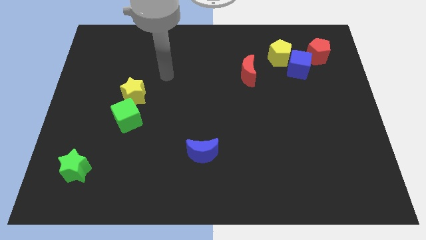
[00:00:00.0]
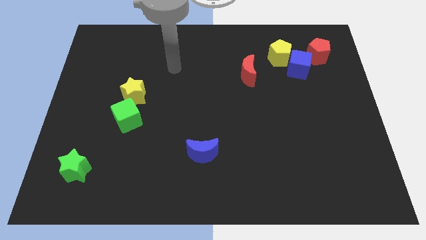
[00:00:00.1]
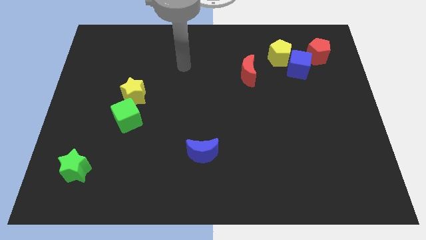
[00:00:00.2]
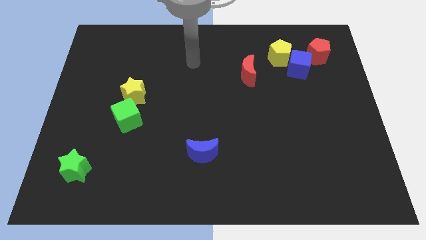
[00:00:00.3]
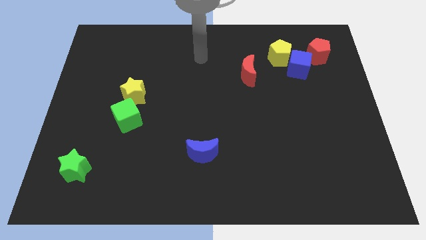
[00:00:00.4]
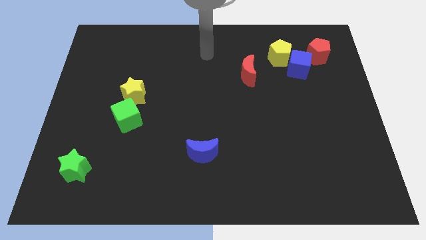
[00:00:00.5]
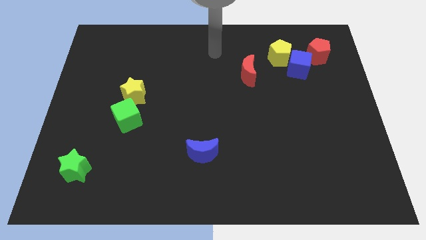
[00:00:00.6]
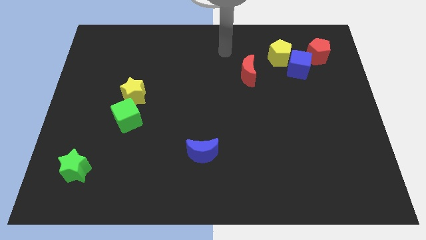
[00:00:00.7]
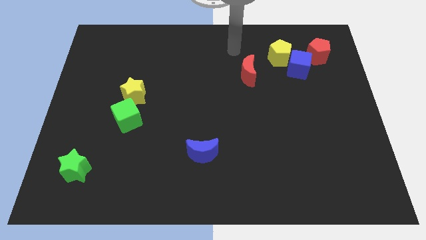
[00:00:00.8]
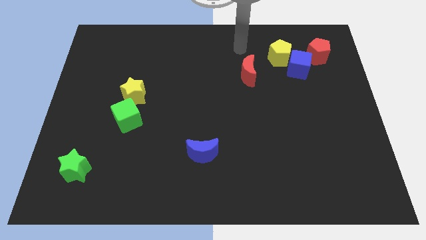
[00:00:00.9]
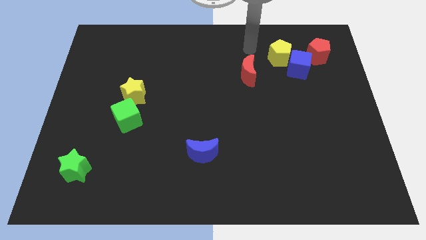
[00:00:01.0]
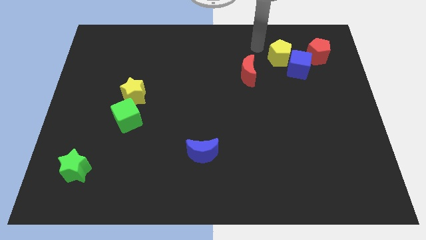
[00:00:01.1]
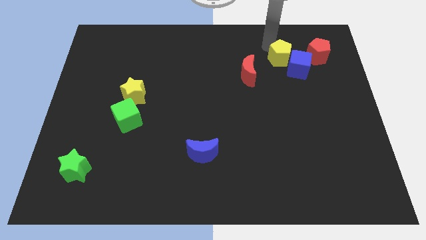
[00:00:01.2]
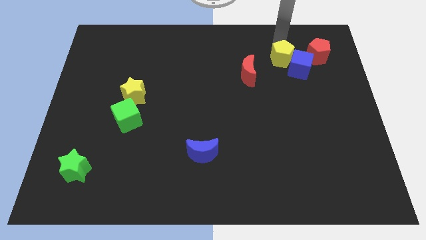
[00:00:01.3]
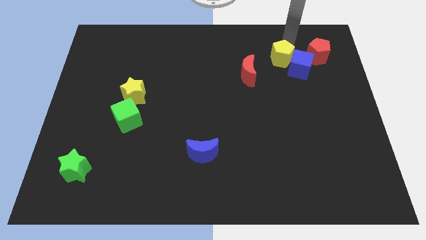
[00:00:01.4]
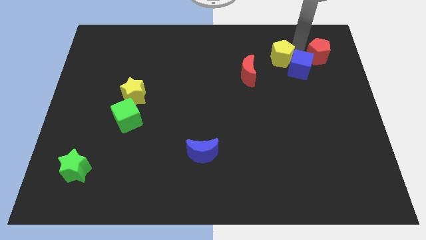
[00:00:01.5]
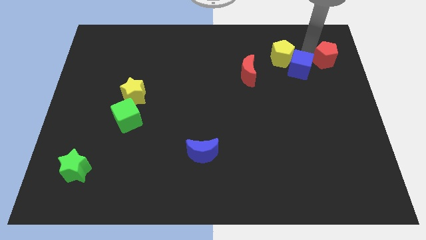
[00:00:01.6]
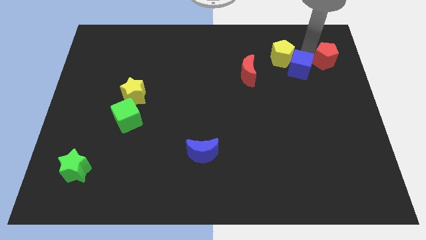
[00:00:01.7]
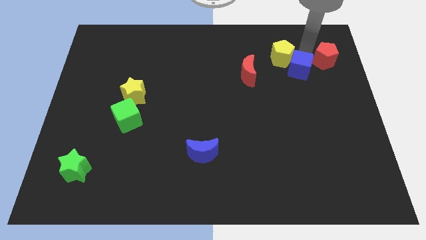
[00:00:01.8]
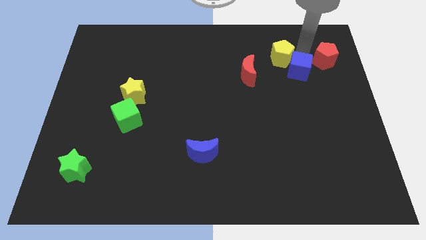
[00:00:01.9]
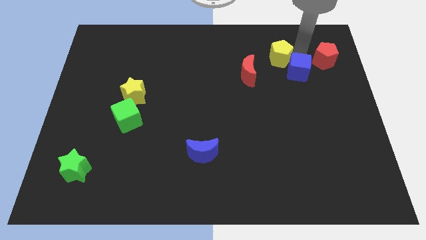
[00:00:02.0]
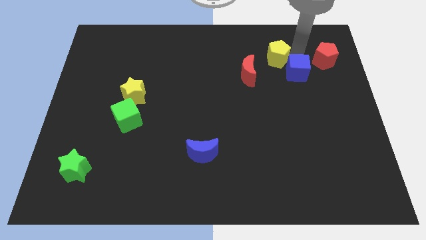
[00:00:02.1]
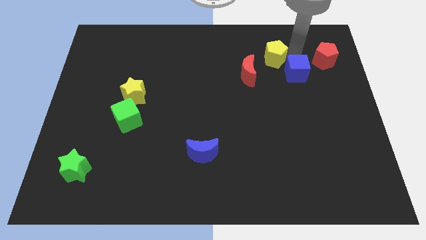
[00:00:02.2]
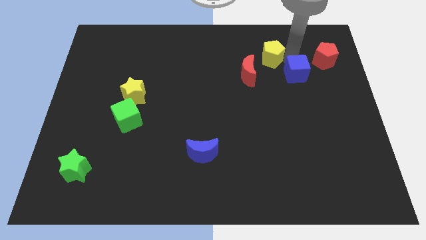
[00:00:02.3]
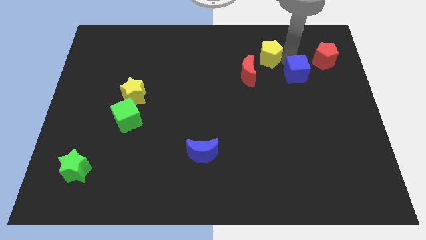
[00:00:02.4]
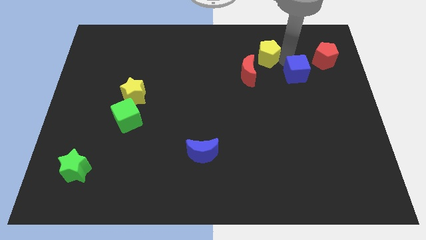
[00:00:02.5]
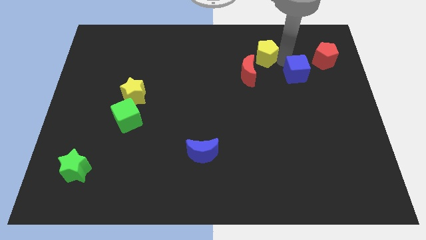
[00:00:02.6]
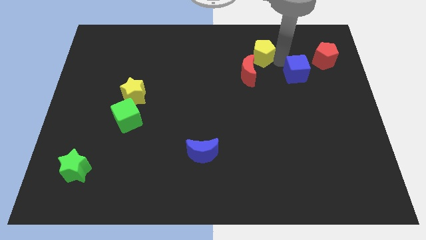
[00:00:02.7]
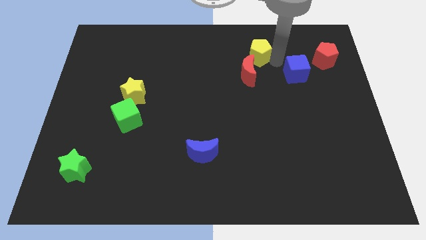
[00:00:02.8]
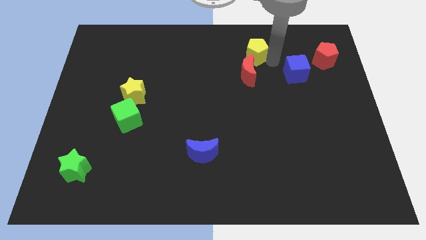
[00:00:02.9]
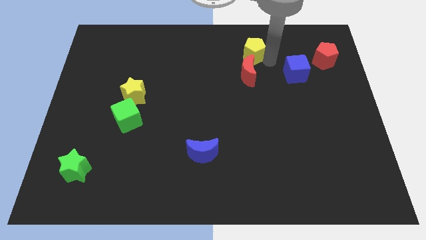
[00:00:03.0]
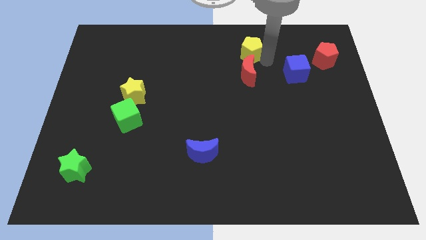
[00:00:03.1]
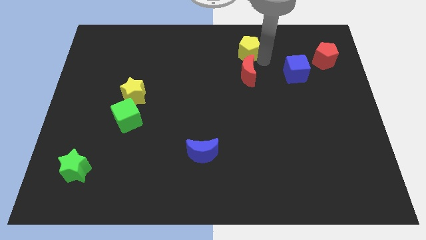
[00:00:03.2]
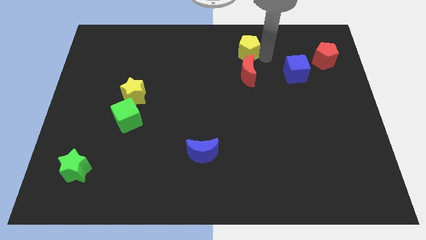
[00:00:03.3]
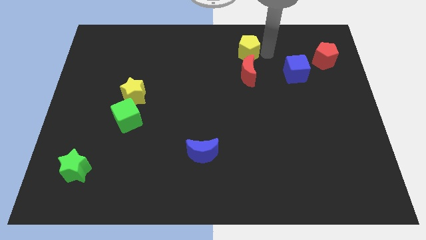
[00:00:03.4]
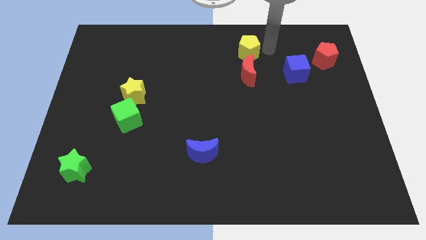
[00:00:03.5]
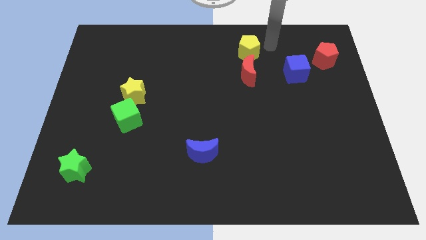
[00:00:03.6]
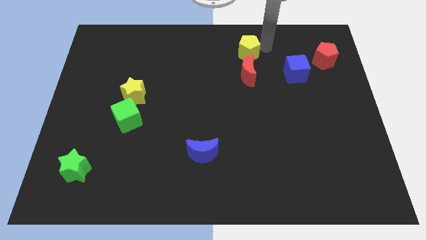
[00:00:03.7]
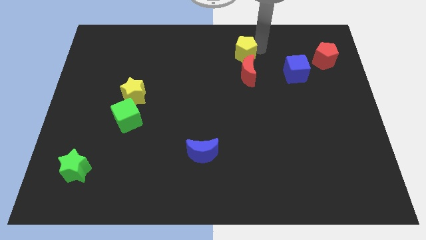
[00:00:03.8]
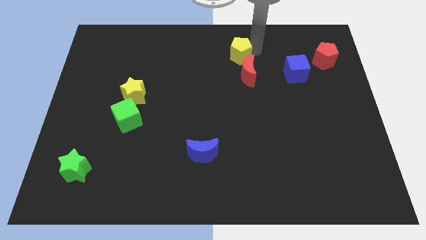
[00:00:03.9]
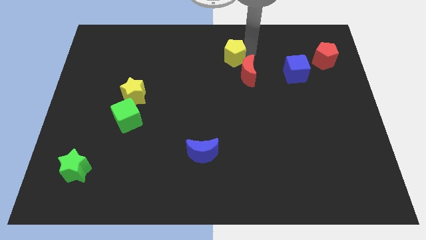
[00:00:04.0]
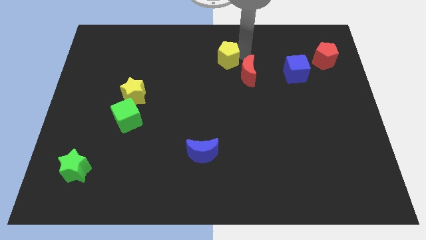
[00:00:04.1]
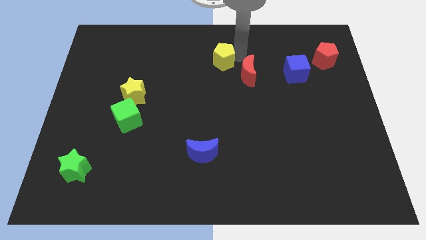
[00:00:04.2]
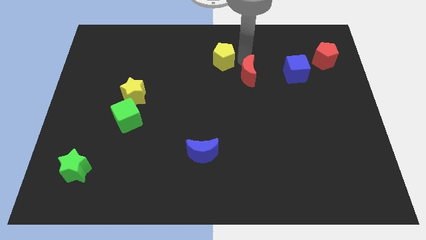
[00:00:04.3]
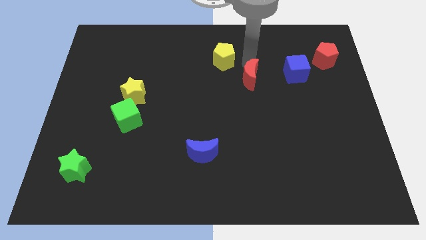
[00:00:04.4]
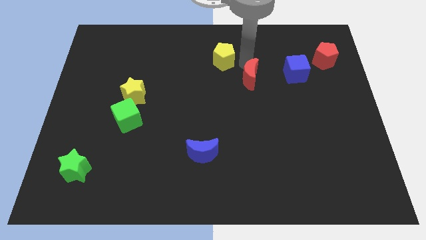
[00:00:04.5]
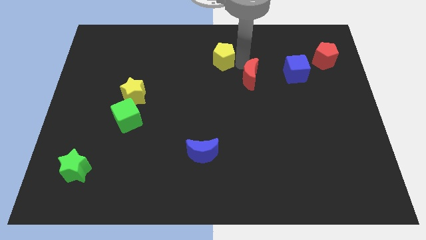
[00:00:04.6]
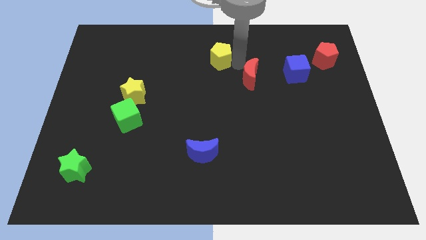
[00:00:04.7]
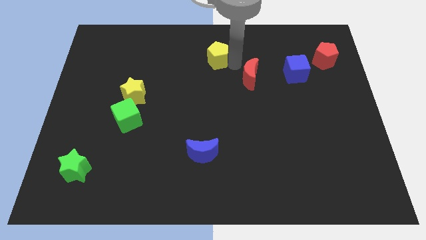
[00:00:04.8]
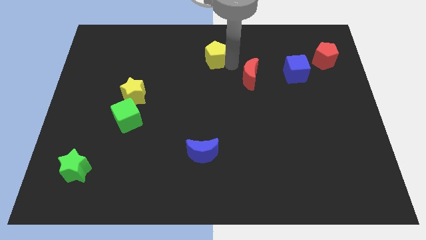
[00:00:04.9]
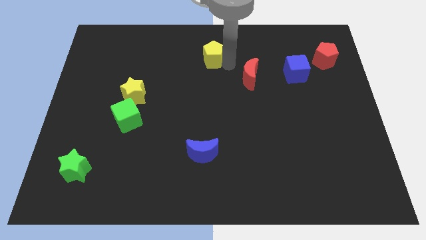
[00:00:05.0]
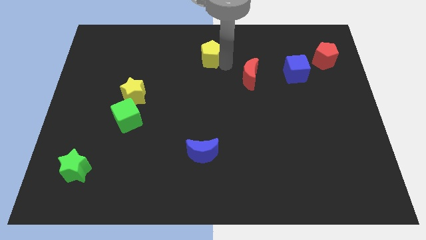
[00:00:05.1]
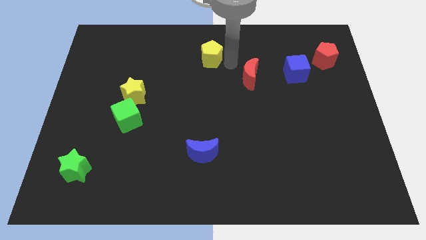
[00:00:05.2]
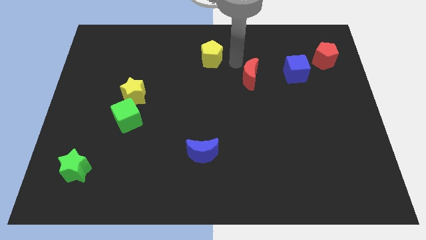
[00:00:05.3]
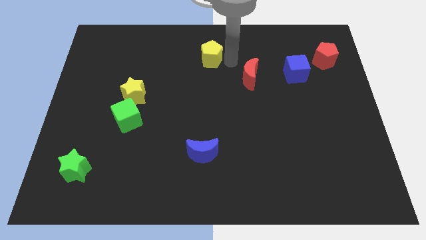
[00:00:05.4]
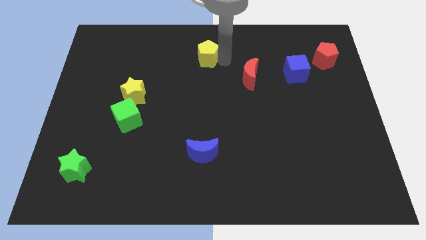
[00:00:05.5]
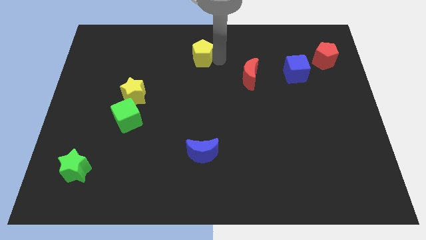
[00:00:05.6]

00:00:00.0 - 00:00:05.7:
move the yellow pentagon to the left

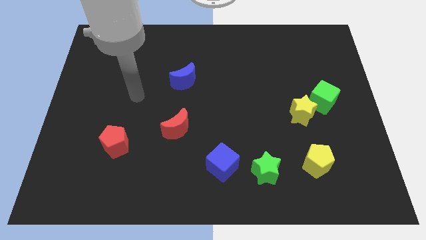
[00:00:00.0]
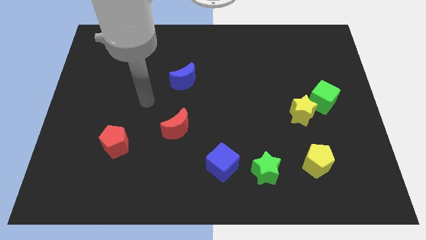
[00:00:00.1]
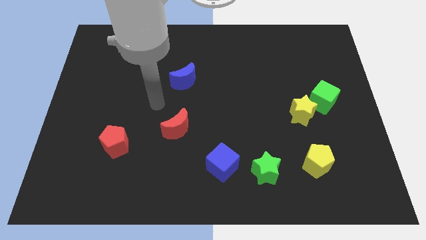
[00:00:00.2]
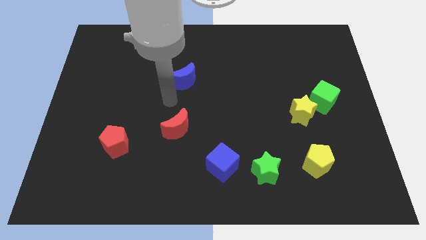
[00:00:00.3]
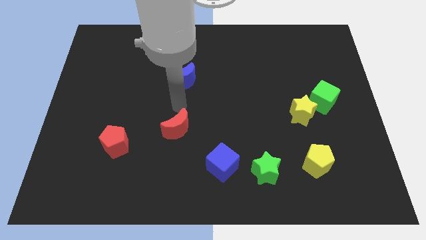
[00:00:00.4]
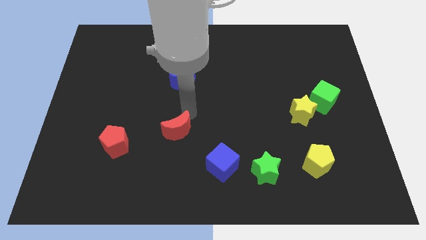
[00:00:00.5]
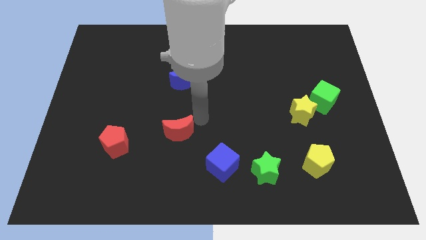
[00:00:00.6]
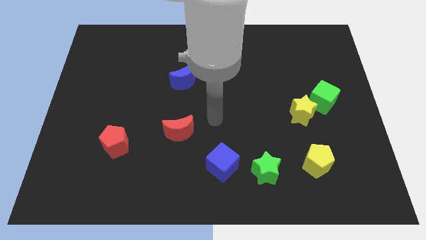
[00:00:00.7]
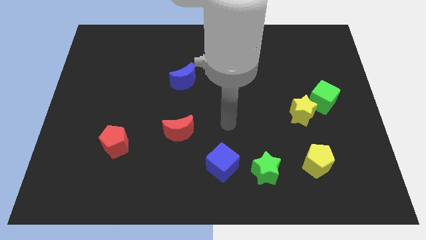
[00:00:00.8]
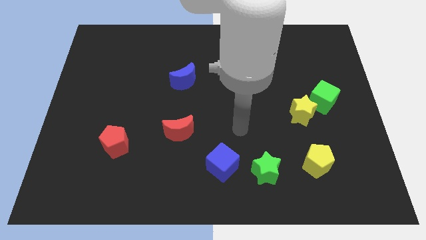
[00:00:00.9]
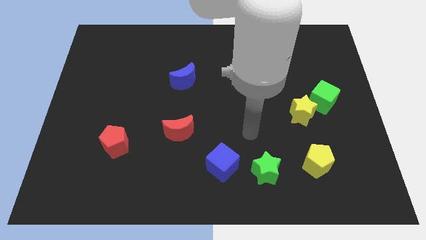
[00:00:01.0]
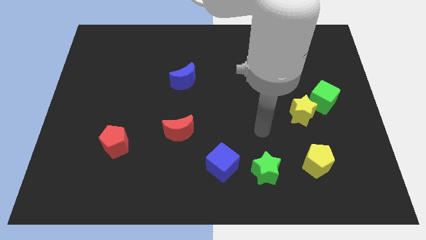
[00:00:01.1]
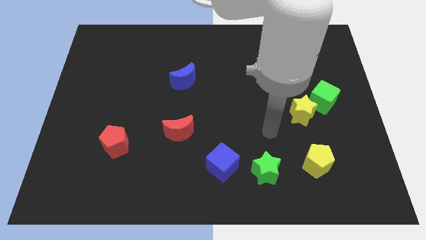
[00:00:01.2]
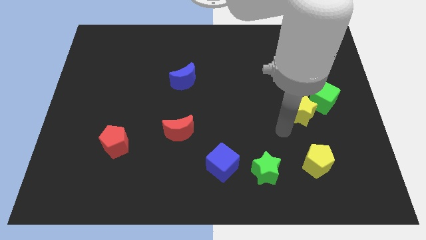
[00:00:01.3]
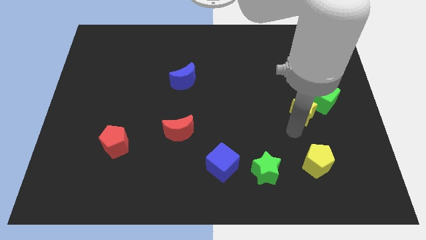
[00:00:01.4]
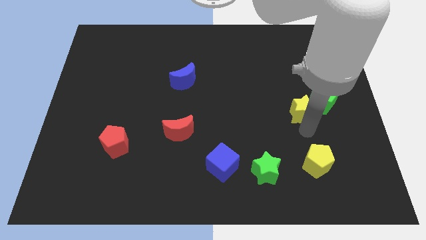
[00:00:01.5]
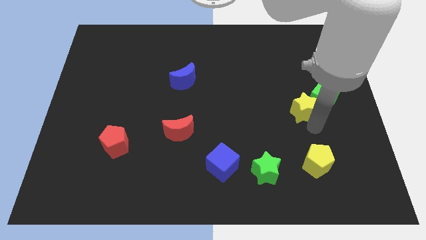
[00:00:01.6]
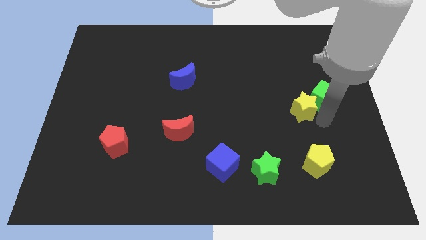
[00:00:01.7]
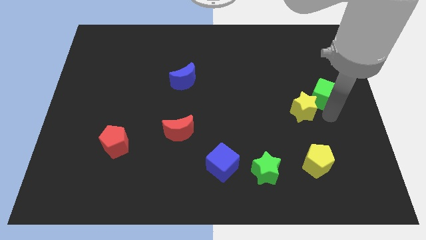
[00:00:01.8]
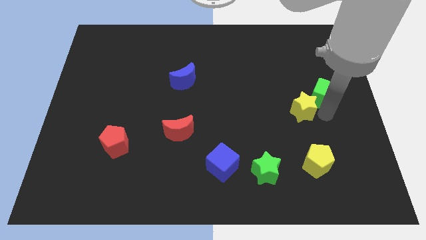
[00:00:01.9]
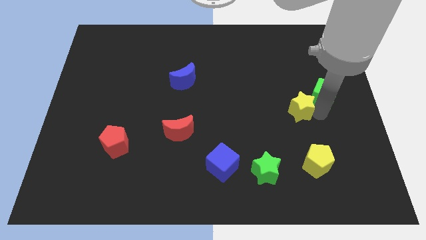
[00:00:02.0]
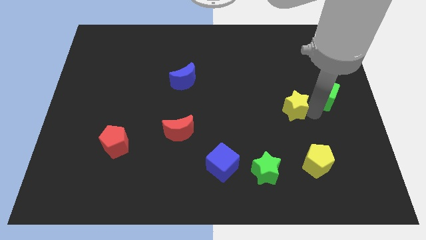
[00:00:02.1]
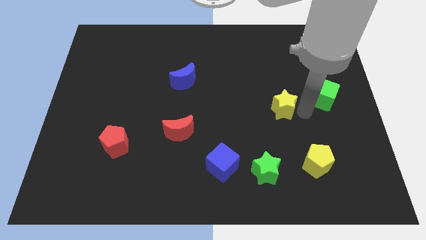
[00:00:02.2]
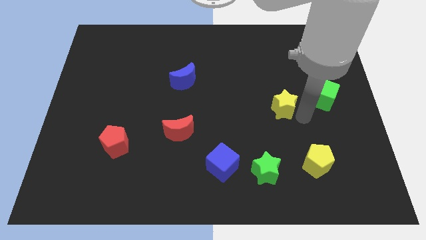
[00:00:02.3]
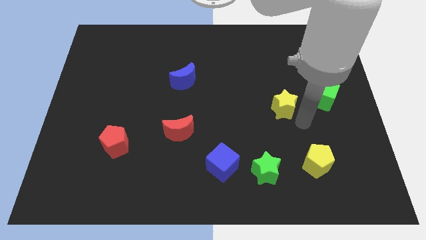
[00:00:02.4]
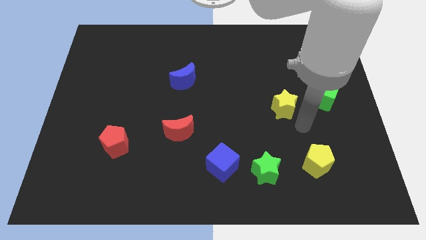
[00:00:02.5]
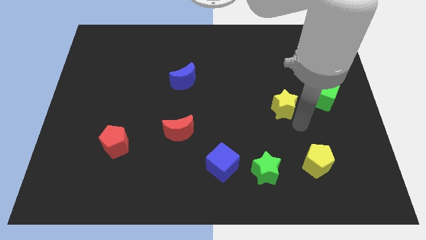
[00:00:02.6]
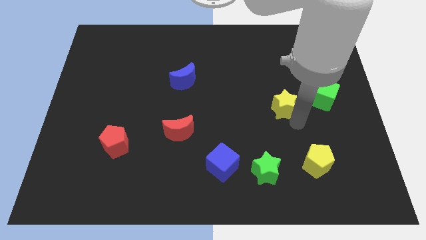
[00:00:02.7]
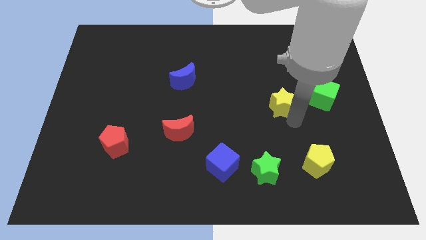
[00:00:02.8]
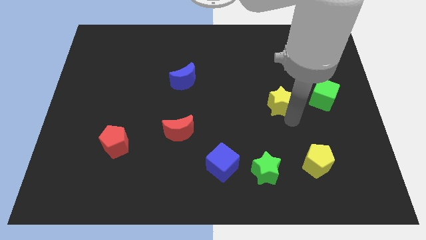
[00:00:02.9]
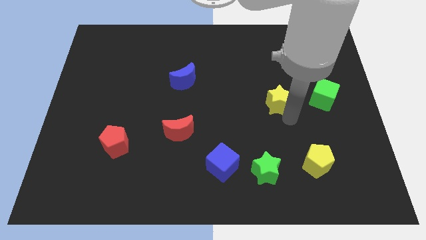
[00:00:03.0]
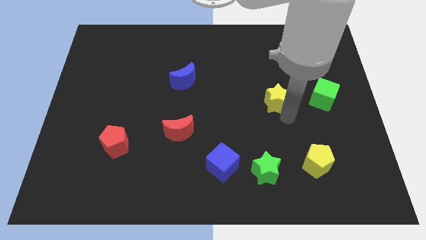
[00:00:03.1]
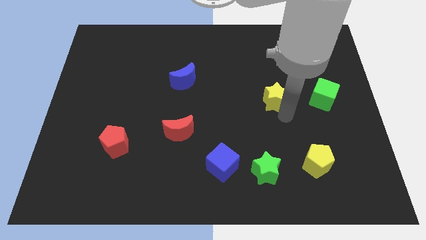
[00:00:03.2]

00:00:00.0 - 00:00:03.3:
slightly push the yellow star diagonally upwards and to the left
